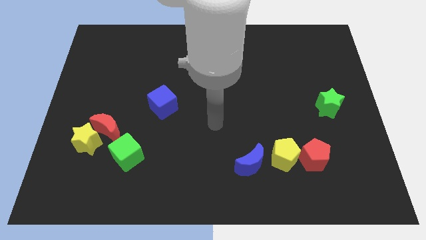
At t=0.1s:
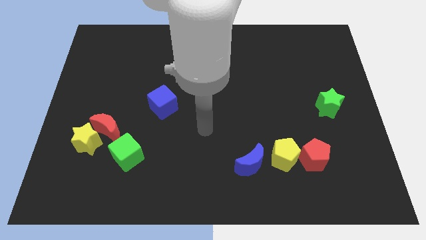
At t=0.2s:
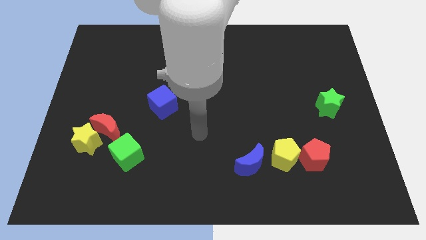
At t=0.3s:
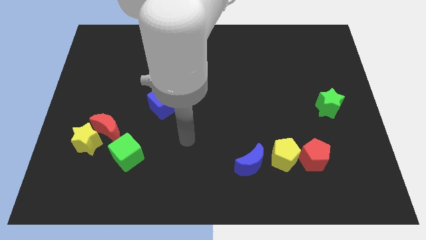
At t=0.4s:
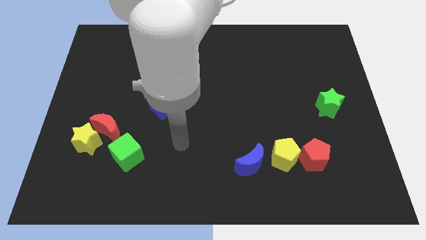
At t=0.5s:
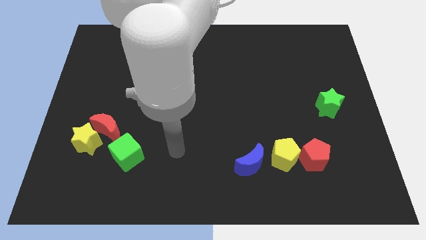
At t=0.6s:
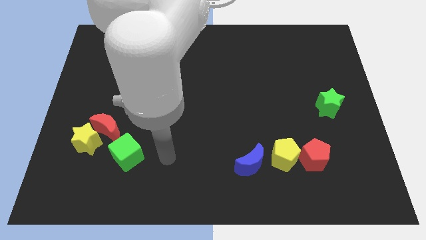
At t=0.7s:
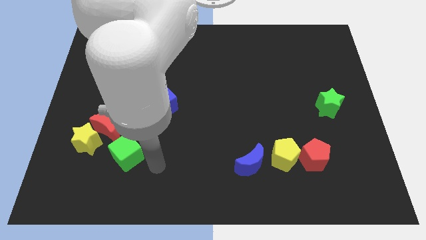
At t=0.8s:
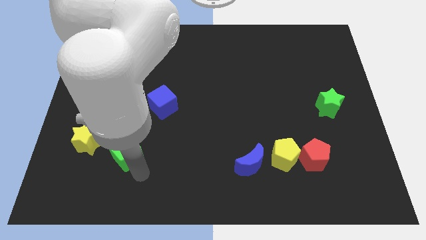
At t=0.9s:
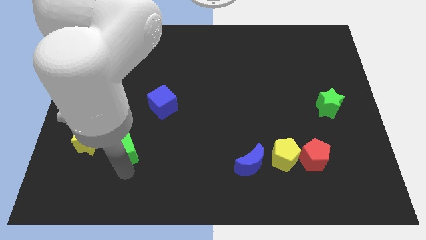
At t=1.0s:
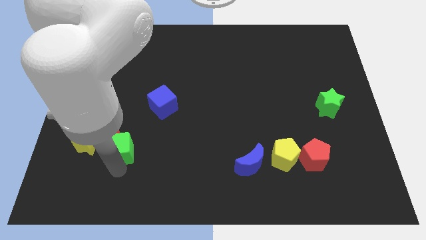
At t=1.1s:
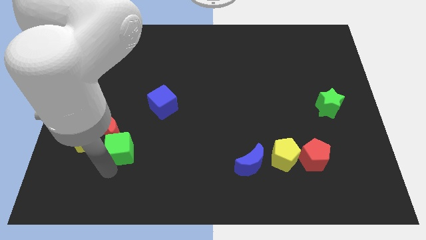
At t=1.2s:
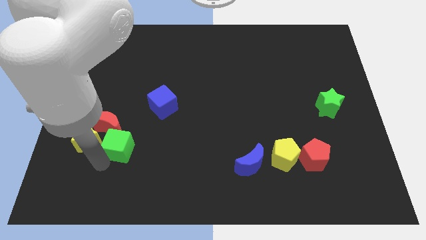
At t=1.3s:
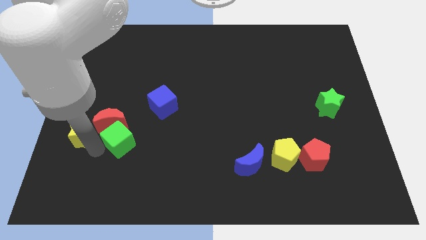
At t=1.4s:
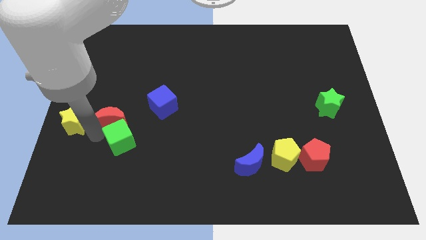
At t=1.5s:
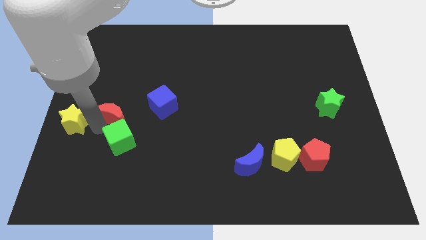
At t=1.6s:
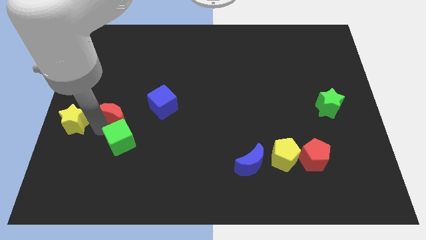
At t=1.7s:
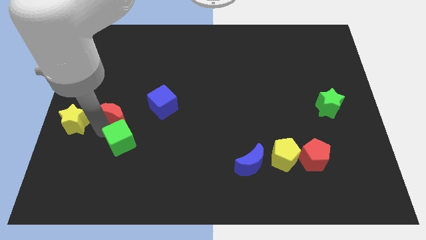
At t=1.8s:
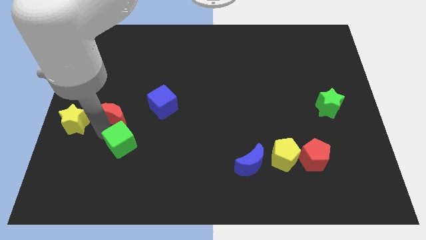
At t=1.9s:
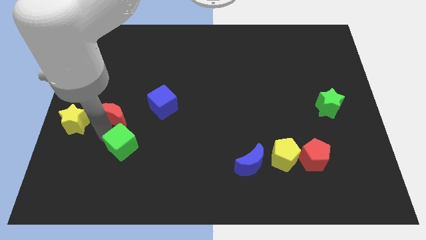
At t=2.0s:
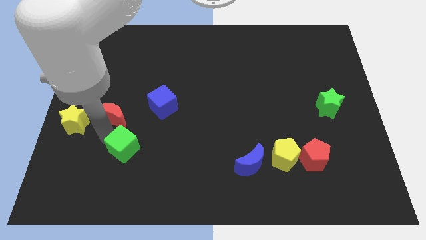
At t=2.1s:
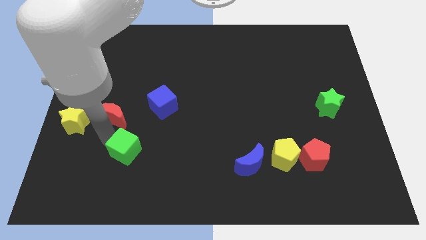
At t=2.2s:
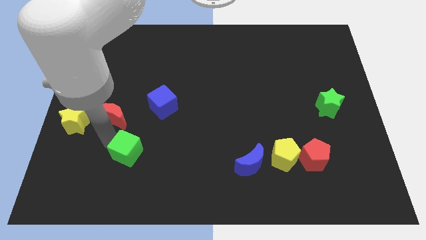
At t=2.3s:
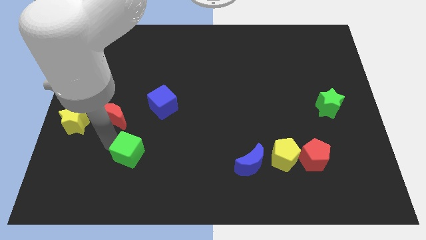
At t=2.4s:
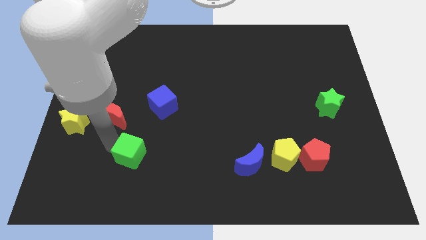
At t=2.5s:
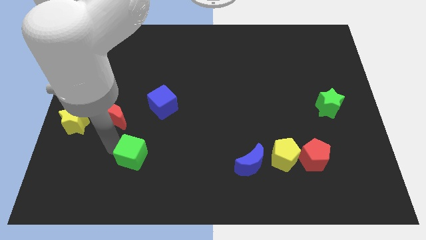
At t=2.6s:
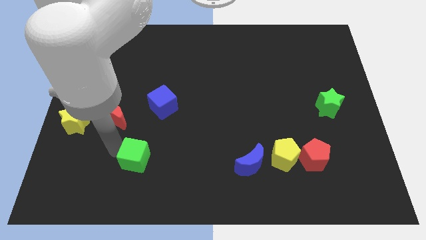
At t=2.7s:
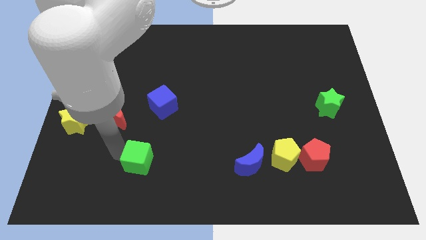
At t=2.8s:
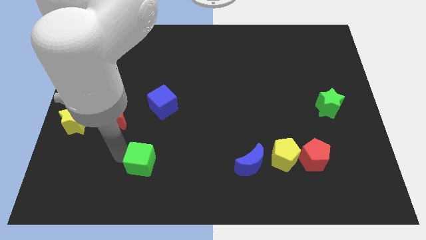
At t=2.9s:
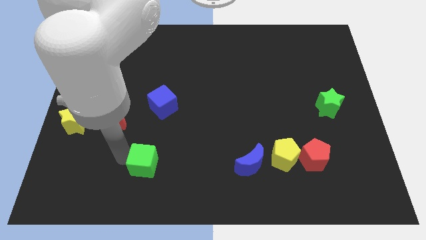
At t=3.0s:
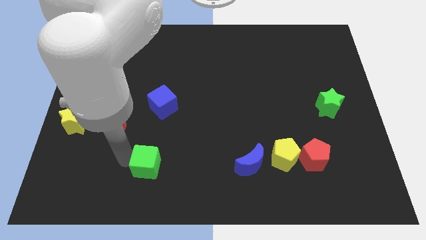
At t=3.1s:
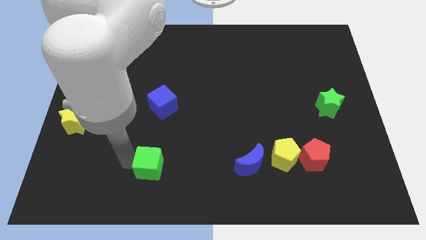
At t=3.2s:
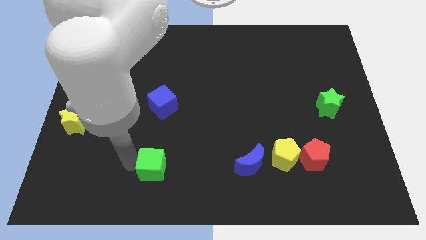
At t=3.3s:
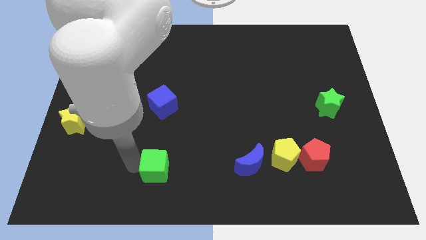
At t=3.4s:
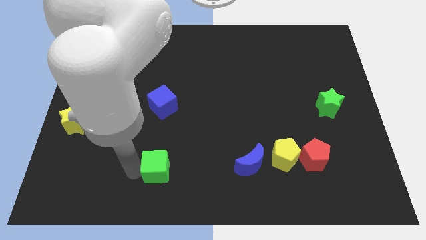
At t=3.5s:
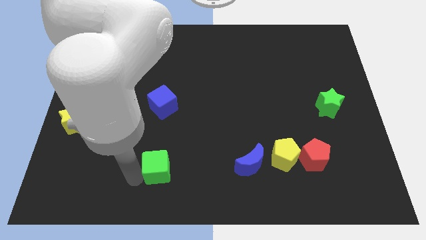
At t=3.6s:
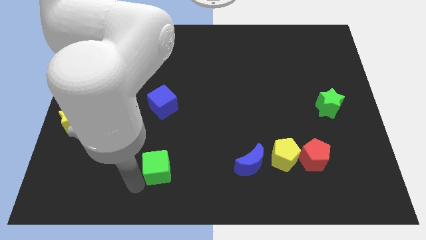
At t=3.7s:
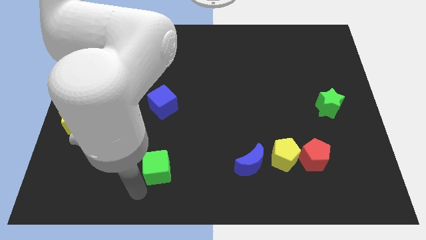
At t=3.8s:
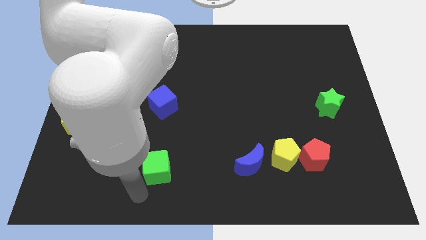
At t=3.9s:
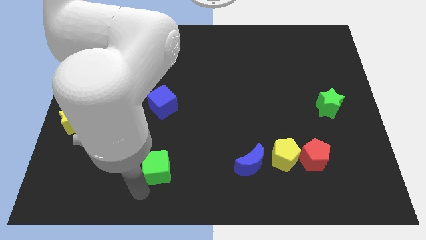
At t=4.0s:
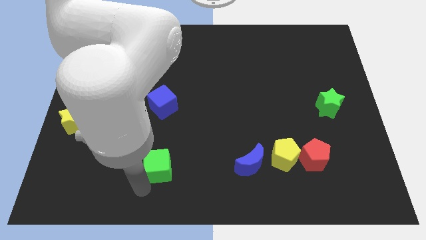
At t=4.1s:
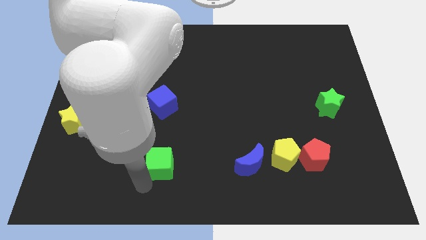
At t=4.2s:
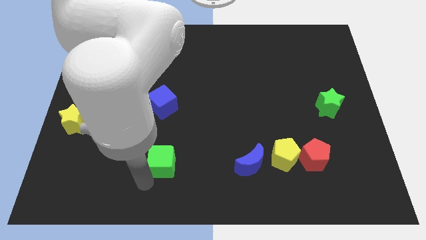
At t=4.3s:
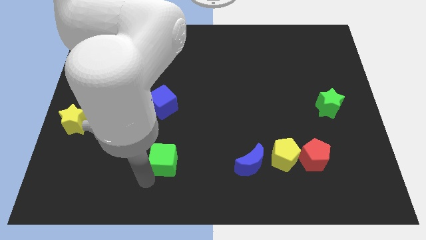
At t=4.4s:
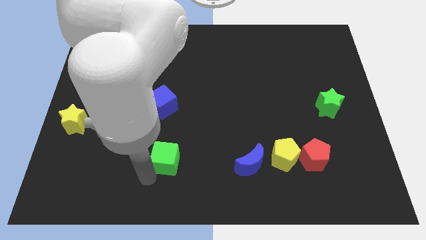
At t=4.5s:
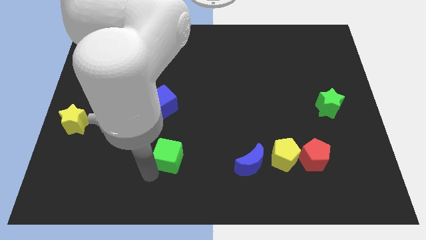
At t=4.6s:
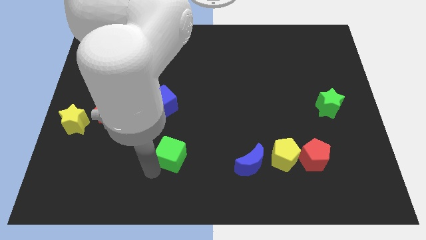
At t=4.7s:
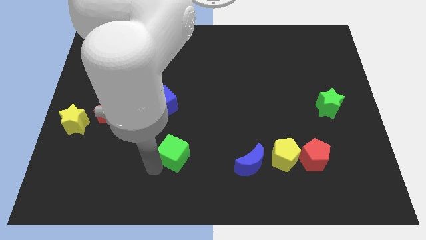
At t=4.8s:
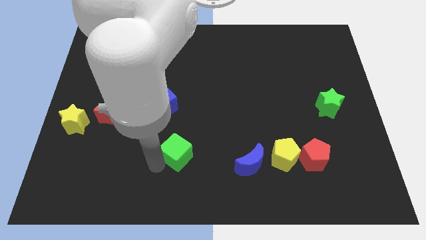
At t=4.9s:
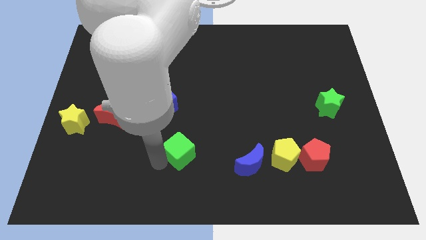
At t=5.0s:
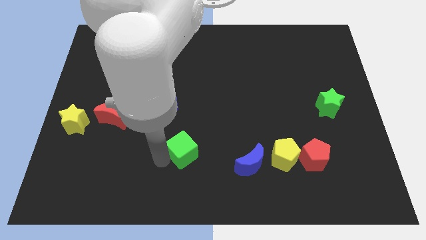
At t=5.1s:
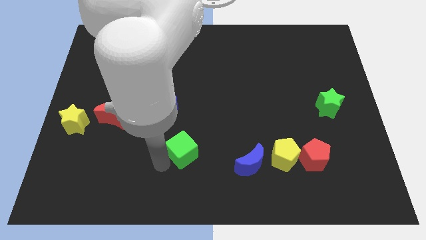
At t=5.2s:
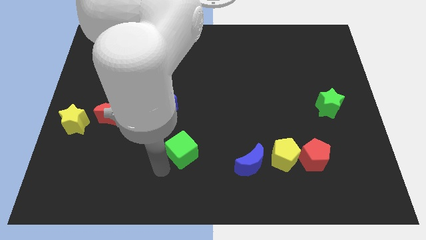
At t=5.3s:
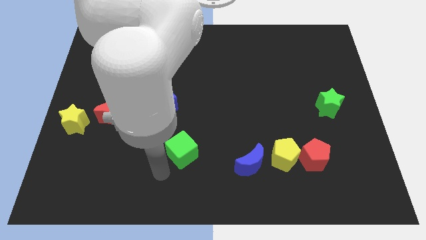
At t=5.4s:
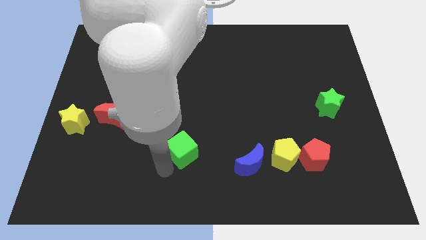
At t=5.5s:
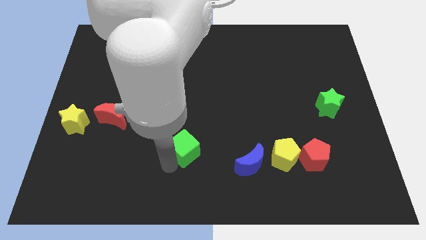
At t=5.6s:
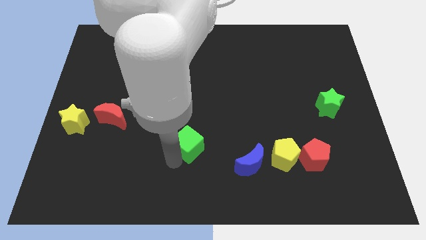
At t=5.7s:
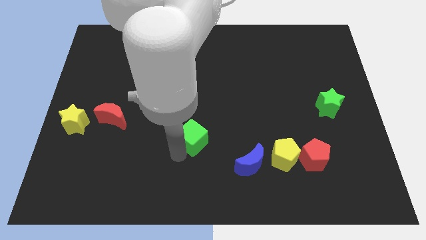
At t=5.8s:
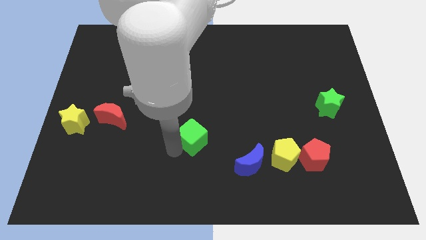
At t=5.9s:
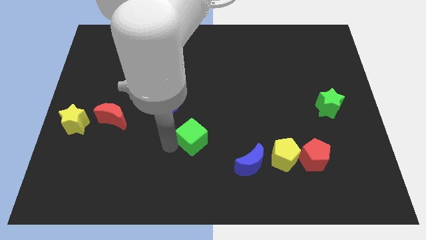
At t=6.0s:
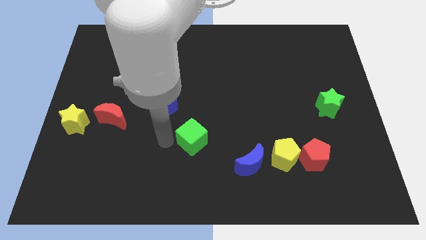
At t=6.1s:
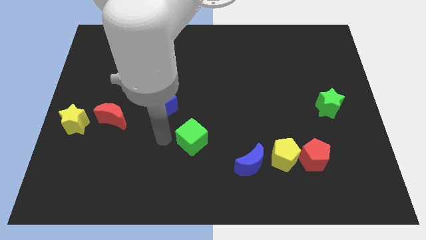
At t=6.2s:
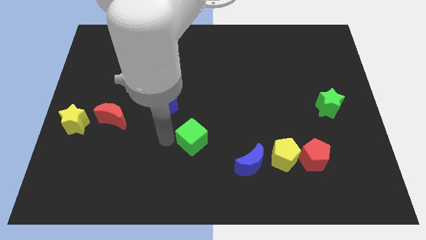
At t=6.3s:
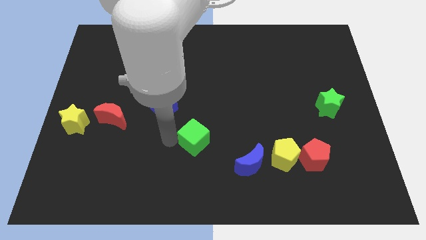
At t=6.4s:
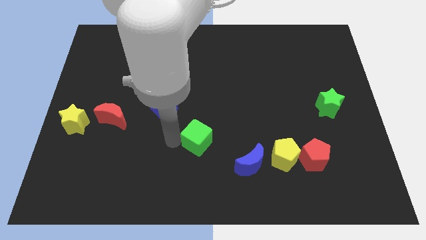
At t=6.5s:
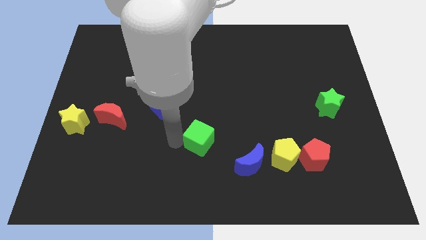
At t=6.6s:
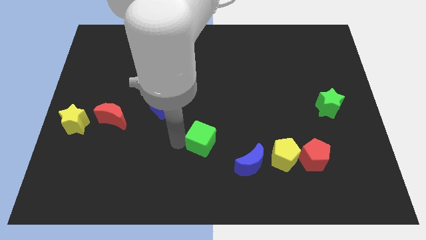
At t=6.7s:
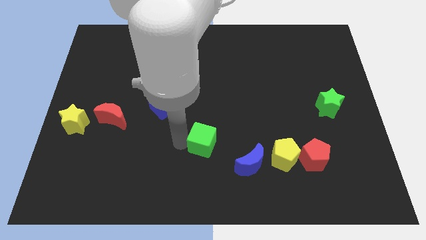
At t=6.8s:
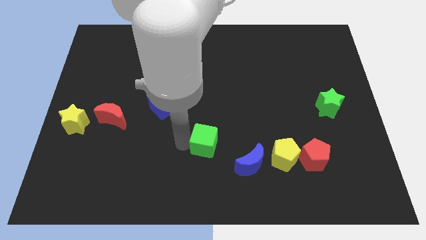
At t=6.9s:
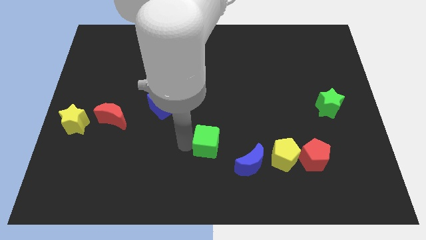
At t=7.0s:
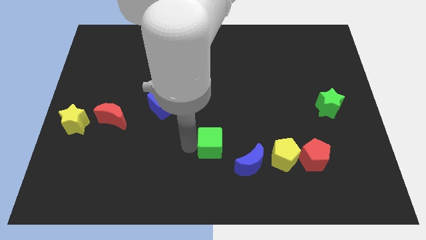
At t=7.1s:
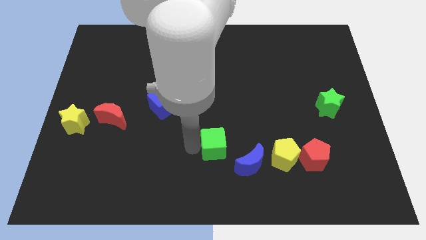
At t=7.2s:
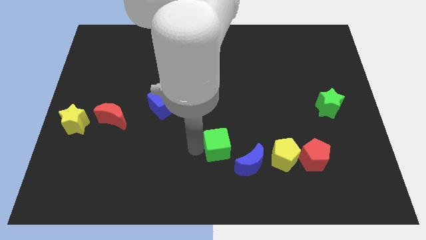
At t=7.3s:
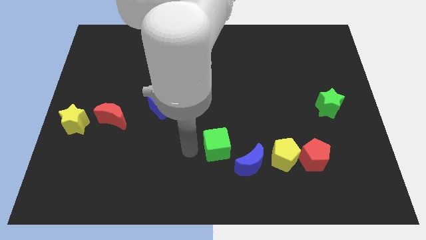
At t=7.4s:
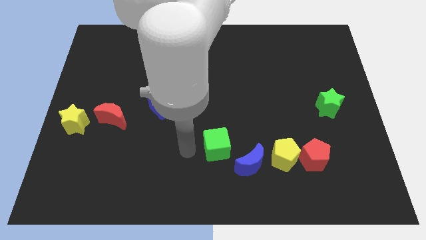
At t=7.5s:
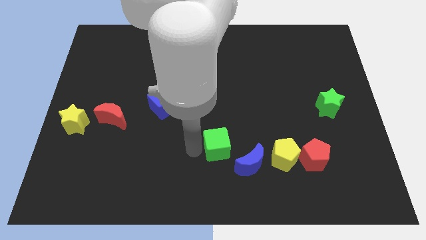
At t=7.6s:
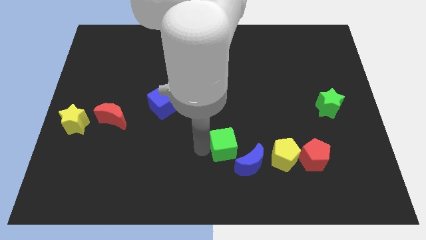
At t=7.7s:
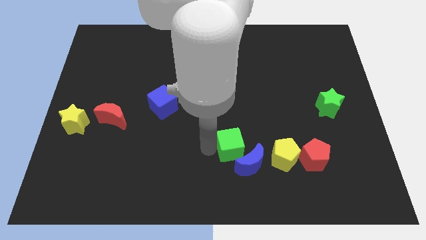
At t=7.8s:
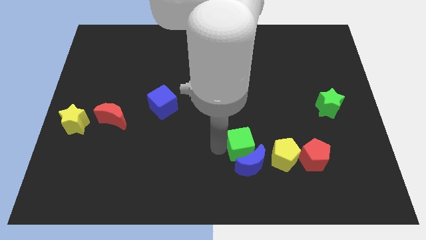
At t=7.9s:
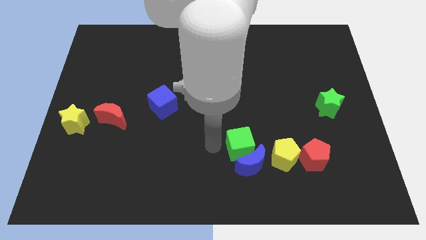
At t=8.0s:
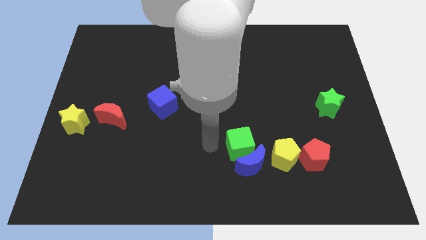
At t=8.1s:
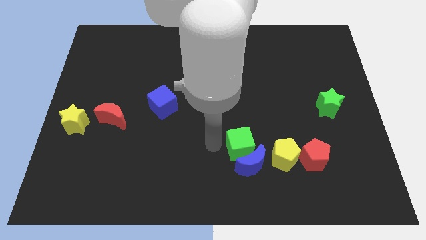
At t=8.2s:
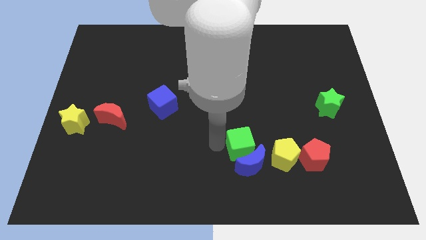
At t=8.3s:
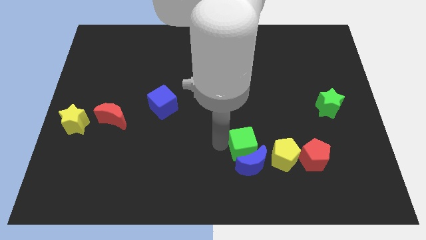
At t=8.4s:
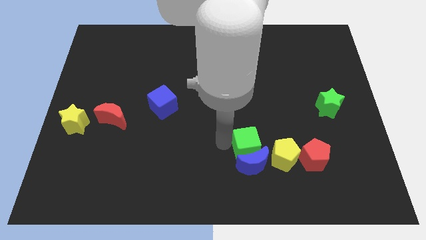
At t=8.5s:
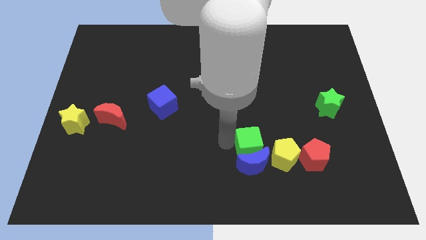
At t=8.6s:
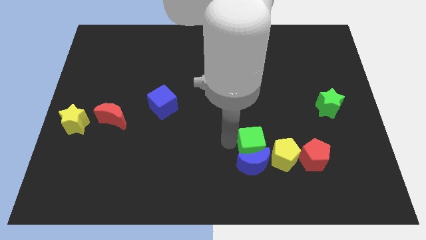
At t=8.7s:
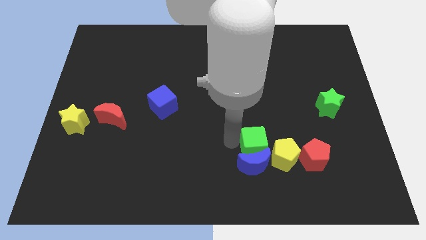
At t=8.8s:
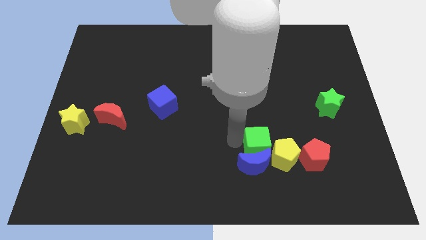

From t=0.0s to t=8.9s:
move the green cube towards the yellow pentagon
